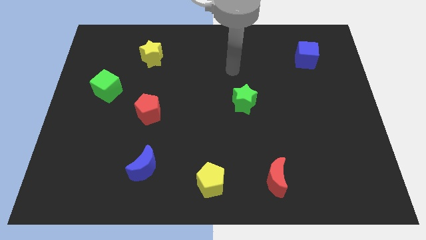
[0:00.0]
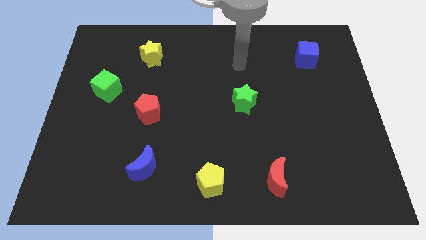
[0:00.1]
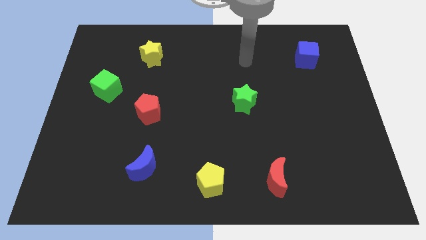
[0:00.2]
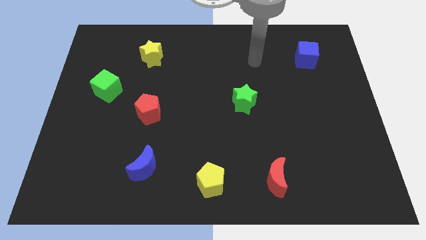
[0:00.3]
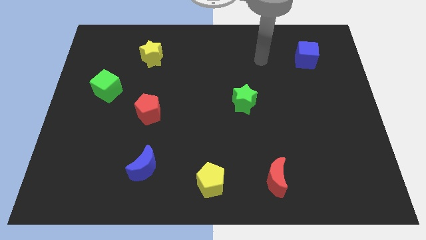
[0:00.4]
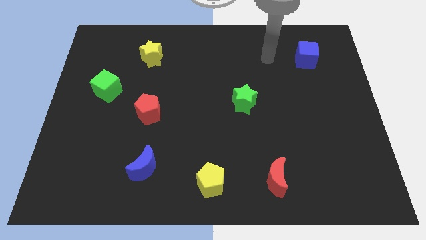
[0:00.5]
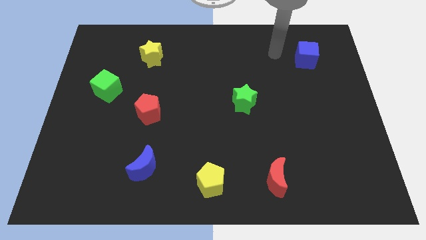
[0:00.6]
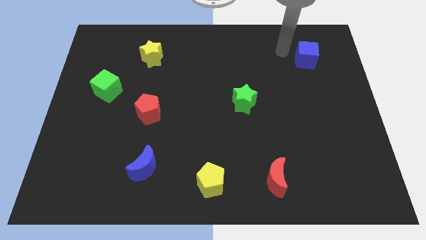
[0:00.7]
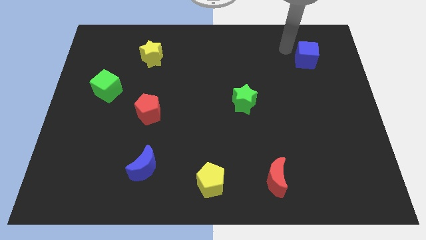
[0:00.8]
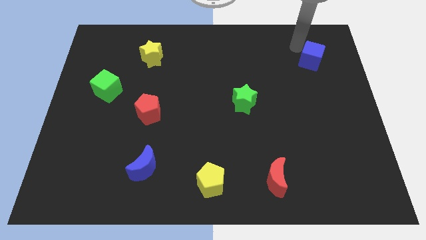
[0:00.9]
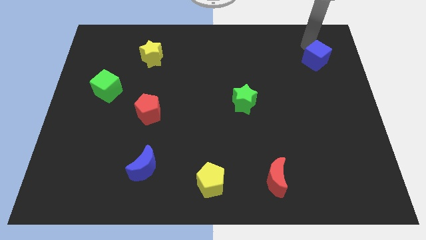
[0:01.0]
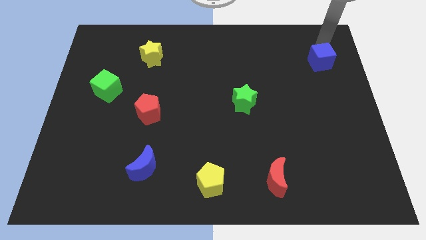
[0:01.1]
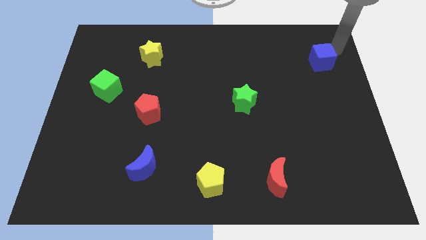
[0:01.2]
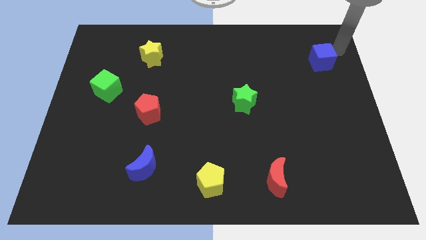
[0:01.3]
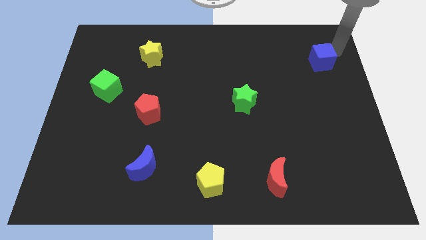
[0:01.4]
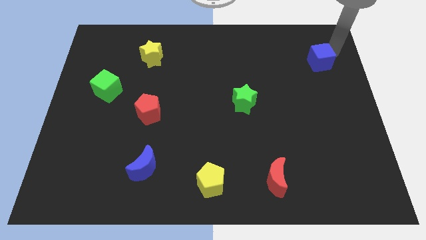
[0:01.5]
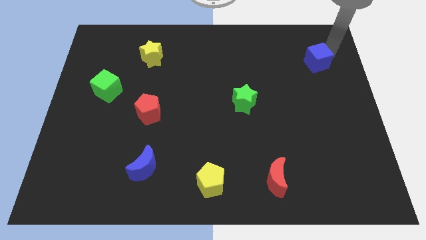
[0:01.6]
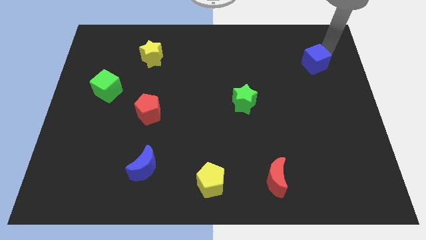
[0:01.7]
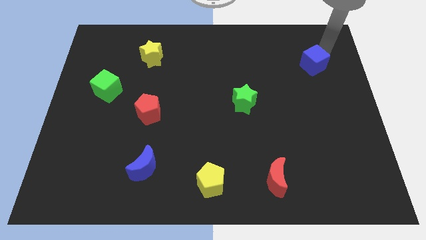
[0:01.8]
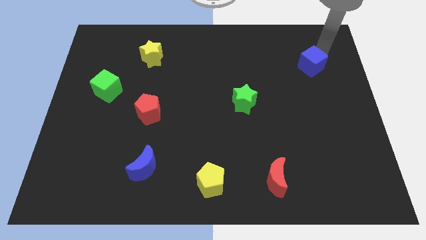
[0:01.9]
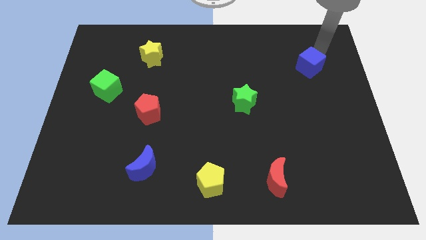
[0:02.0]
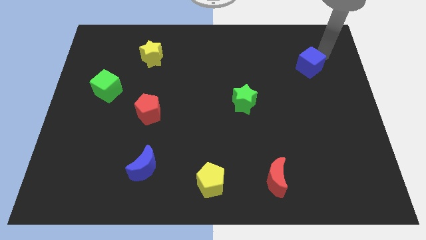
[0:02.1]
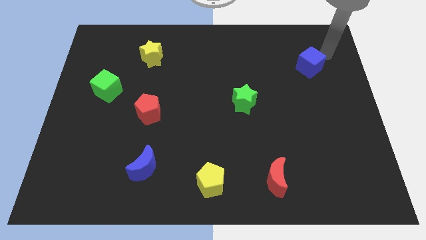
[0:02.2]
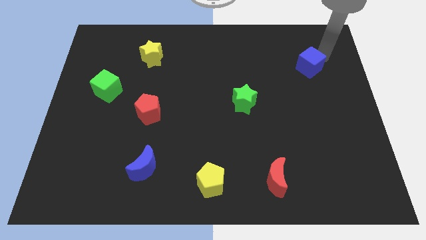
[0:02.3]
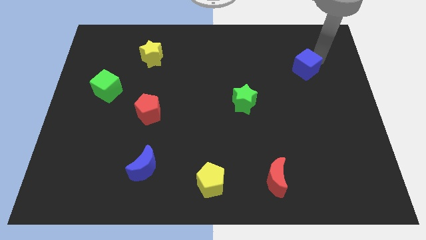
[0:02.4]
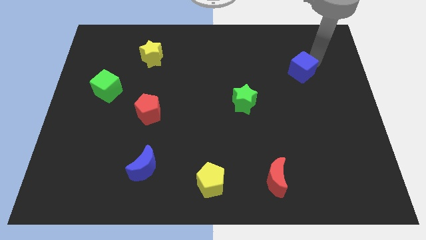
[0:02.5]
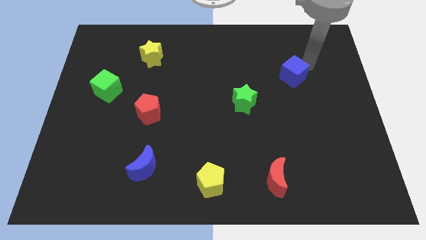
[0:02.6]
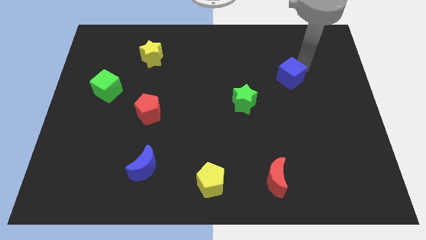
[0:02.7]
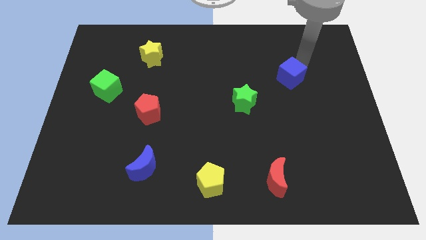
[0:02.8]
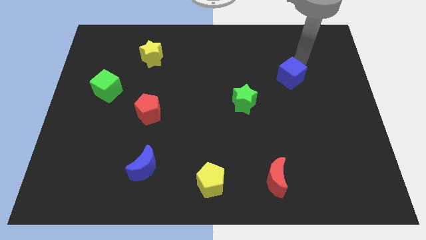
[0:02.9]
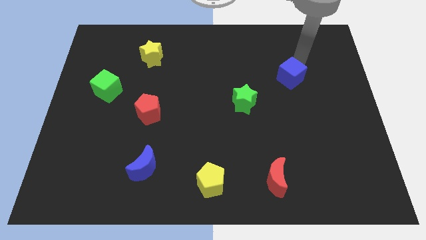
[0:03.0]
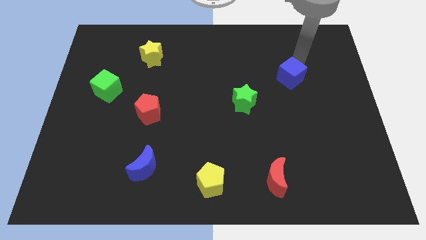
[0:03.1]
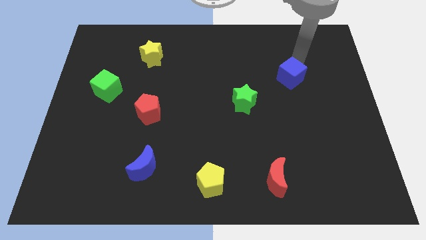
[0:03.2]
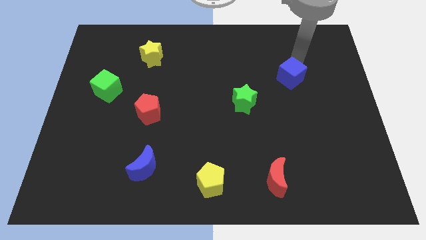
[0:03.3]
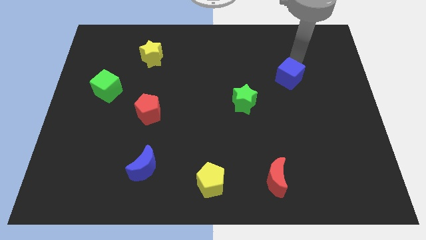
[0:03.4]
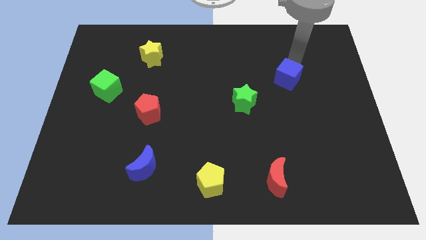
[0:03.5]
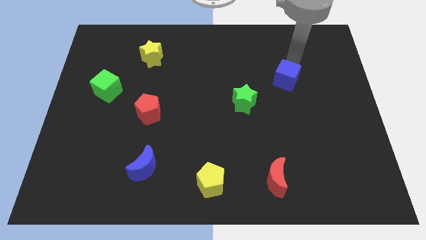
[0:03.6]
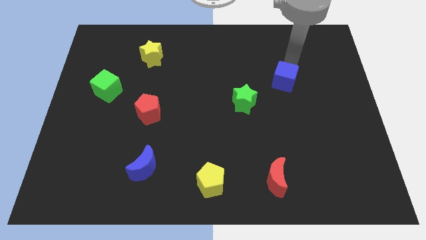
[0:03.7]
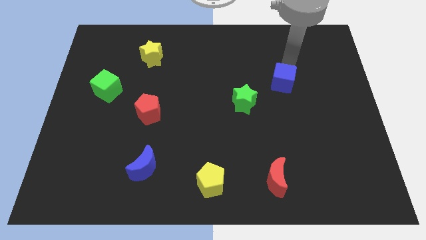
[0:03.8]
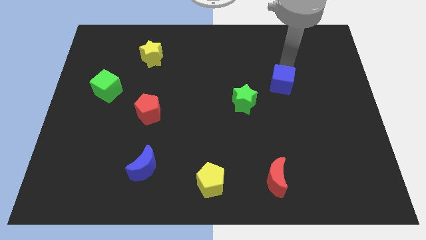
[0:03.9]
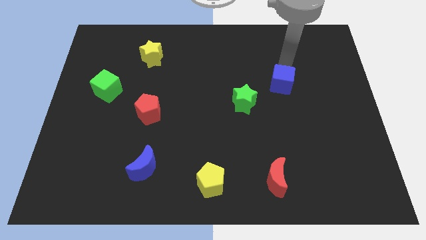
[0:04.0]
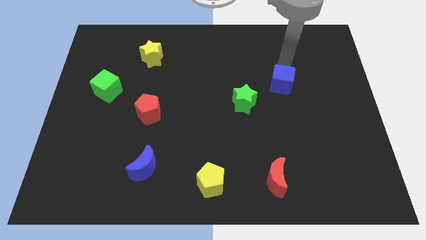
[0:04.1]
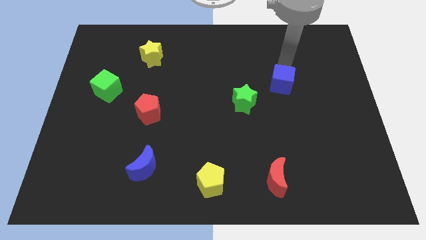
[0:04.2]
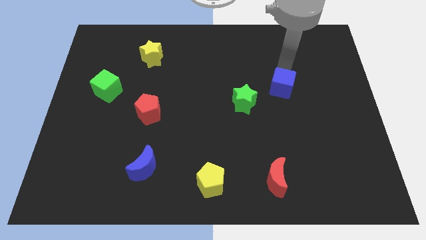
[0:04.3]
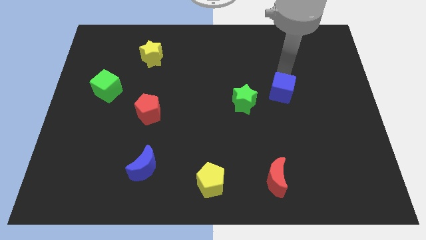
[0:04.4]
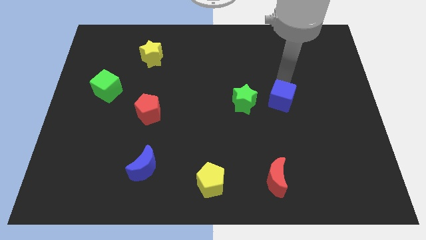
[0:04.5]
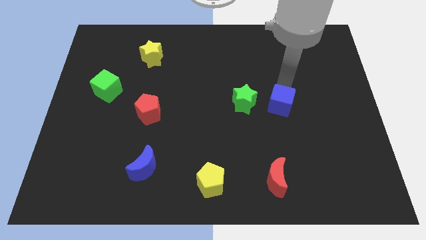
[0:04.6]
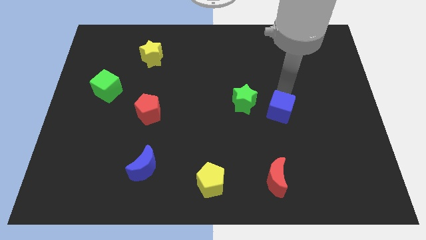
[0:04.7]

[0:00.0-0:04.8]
move the blue cube to the bottom right side of the green star

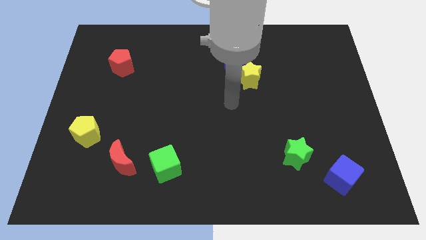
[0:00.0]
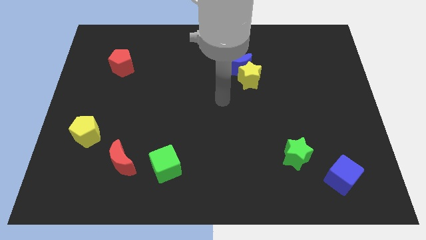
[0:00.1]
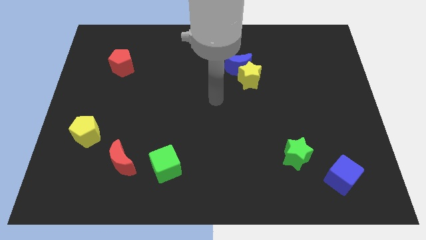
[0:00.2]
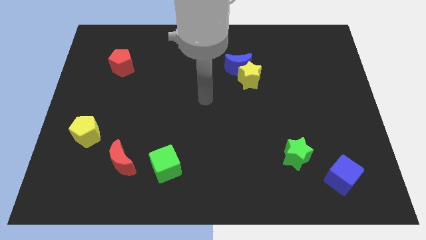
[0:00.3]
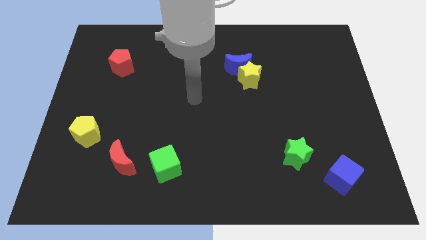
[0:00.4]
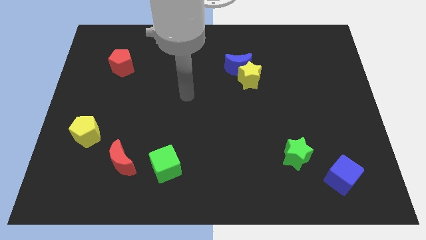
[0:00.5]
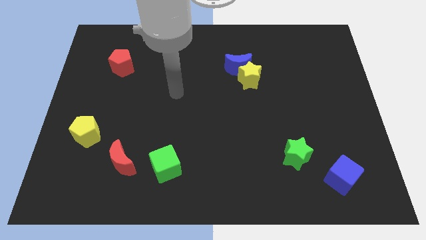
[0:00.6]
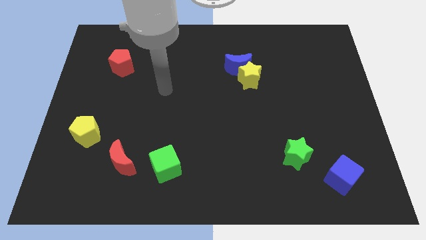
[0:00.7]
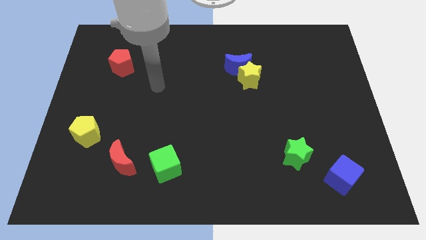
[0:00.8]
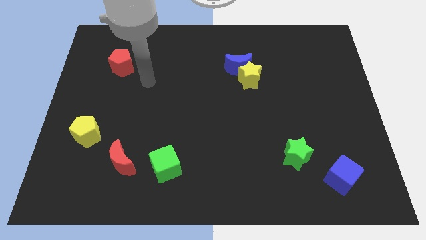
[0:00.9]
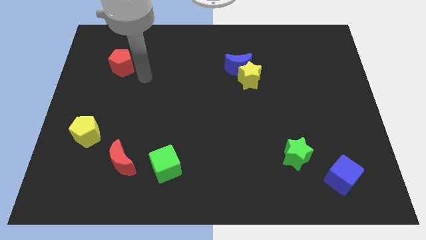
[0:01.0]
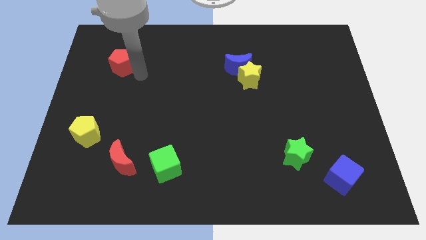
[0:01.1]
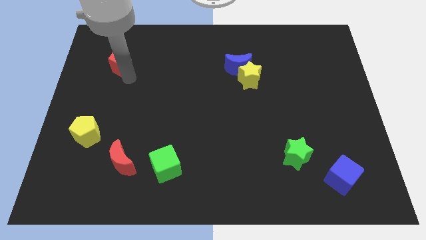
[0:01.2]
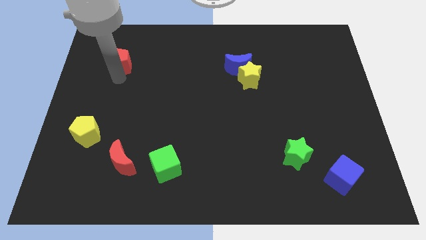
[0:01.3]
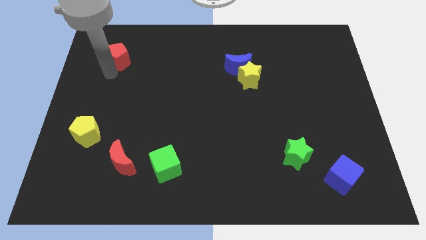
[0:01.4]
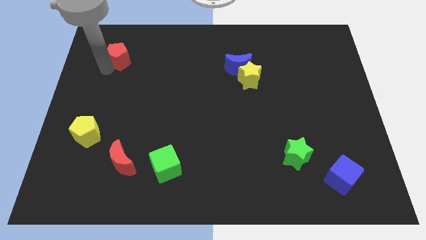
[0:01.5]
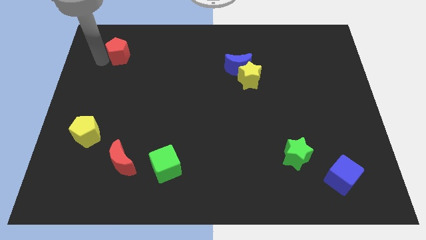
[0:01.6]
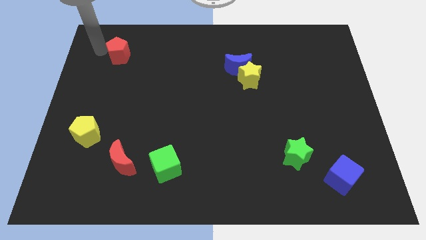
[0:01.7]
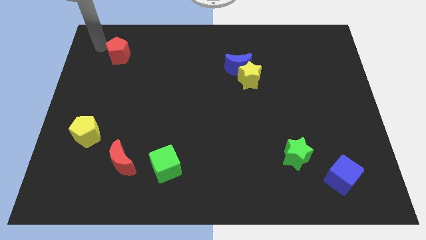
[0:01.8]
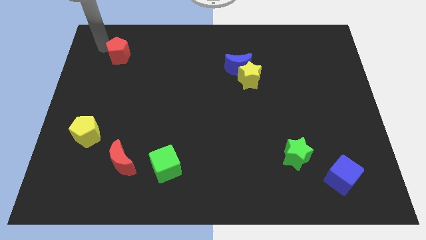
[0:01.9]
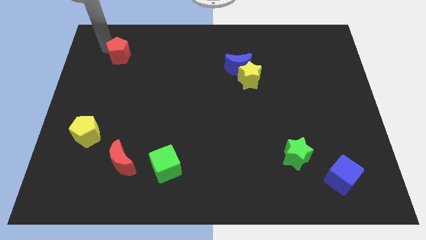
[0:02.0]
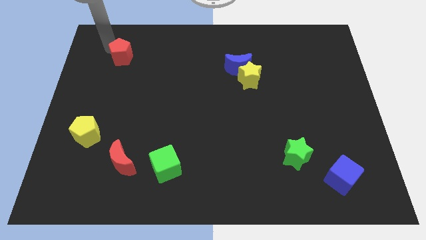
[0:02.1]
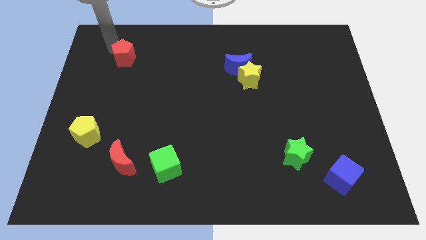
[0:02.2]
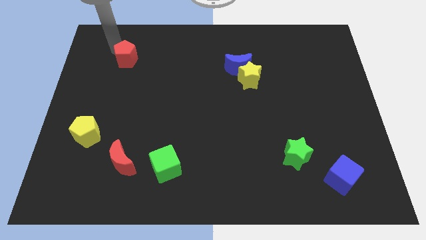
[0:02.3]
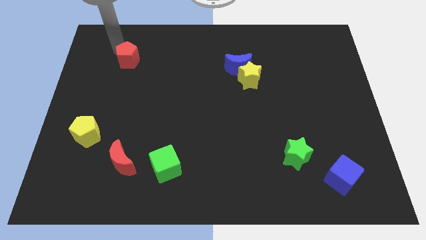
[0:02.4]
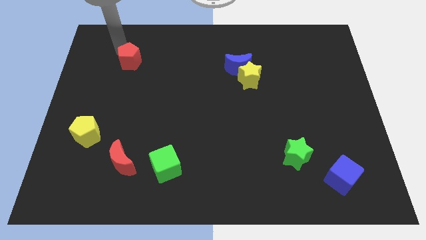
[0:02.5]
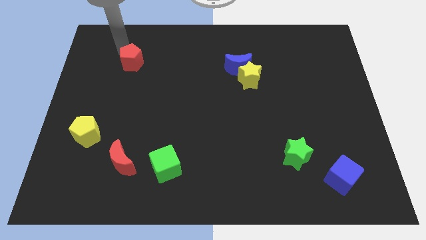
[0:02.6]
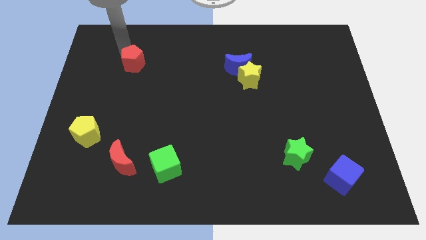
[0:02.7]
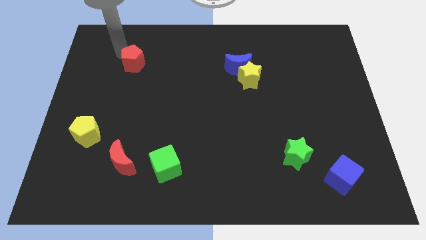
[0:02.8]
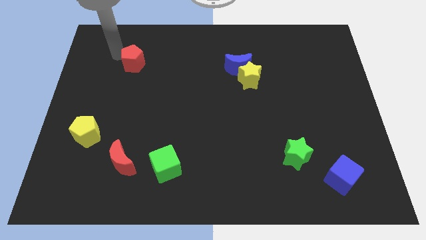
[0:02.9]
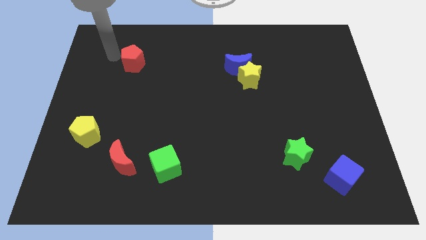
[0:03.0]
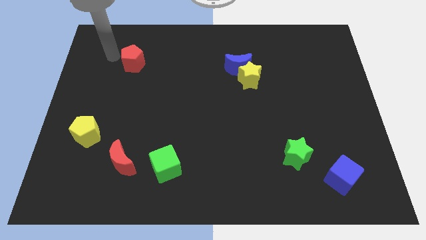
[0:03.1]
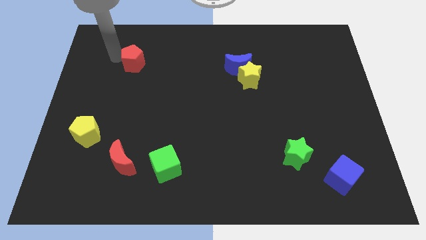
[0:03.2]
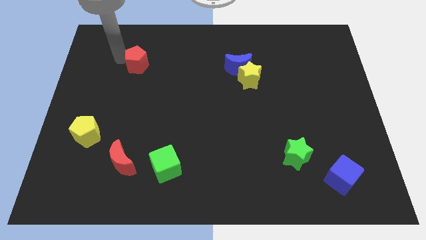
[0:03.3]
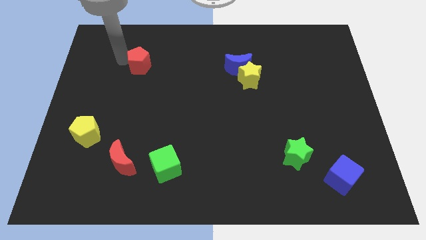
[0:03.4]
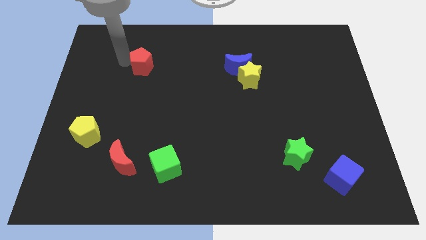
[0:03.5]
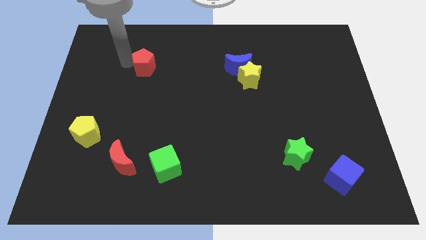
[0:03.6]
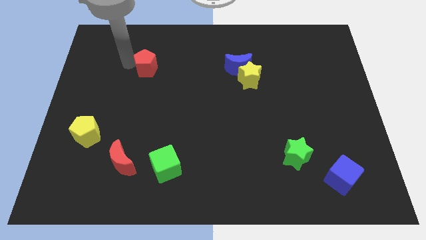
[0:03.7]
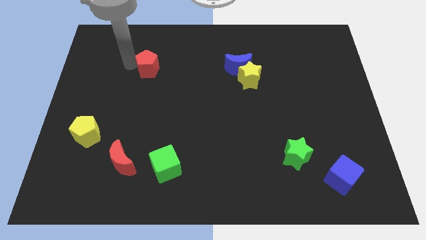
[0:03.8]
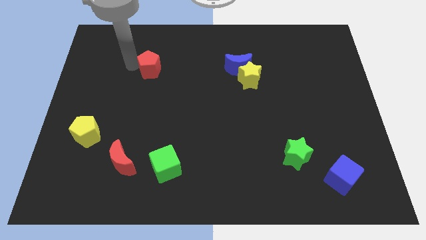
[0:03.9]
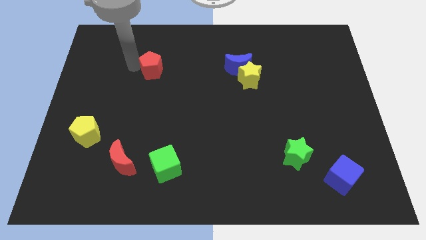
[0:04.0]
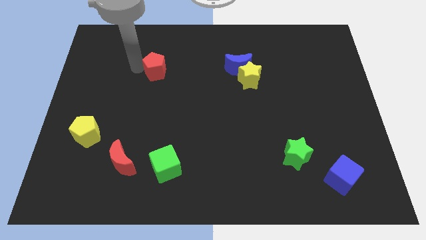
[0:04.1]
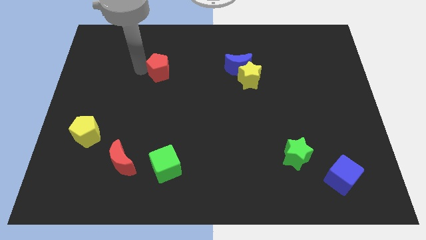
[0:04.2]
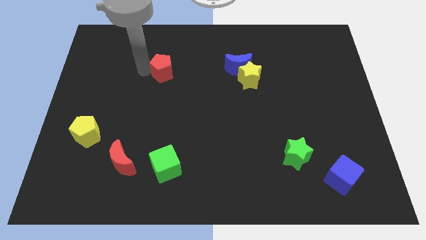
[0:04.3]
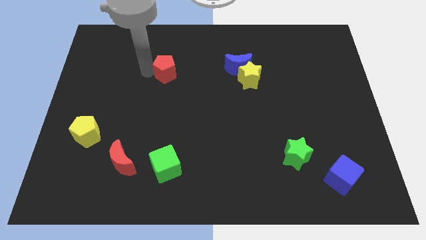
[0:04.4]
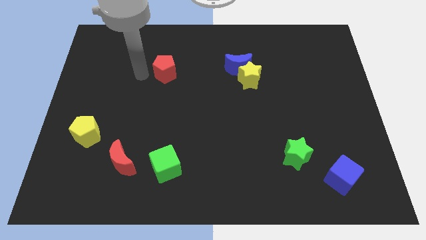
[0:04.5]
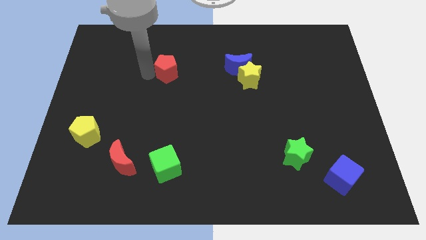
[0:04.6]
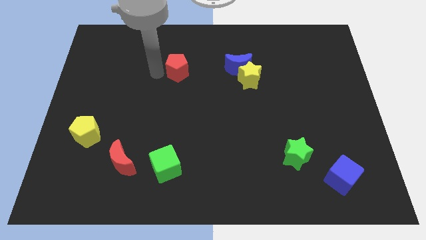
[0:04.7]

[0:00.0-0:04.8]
move the red pentagon just left of the blue moon
